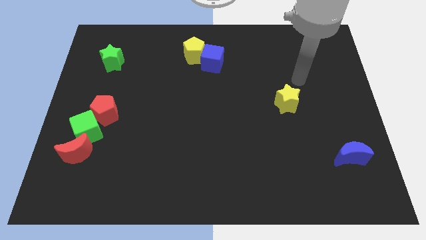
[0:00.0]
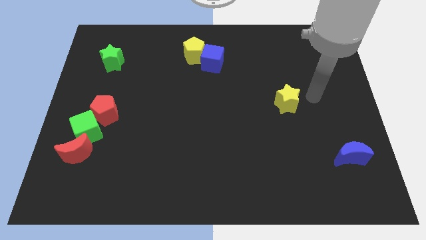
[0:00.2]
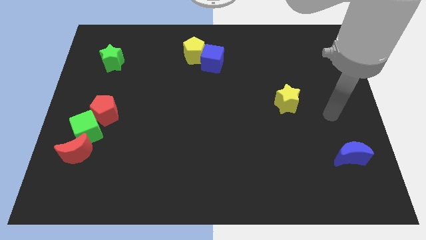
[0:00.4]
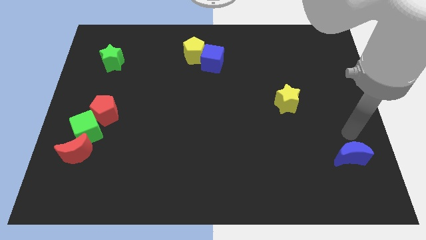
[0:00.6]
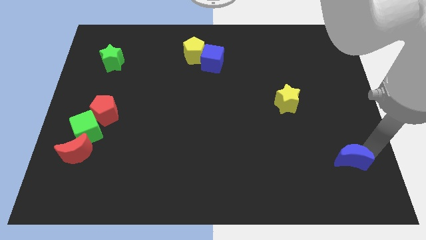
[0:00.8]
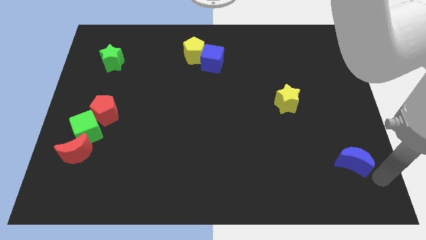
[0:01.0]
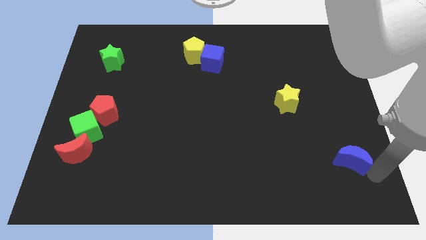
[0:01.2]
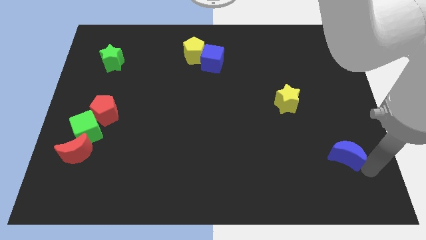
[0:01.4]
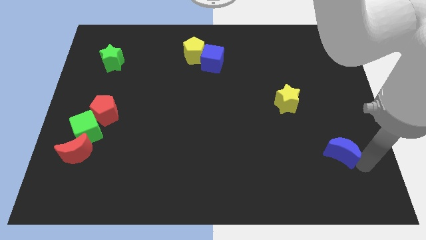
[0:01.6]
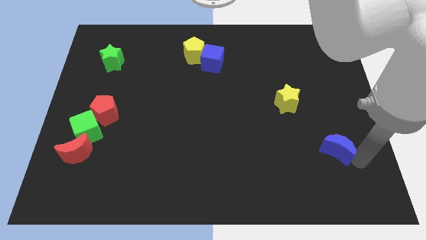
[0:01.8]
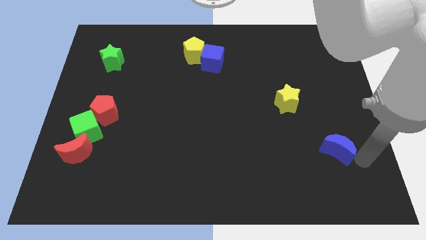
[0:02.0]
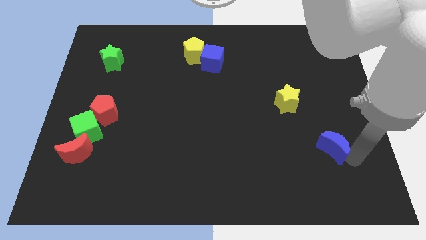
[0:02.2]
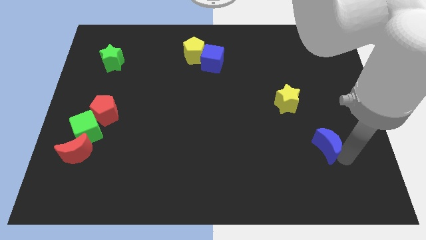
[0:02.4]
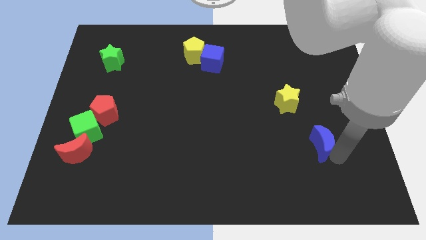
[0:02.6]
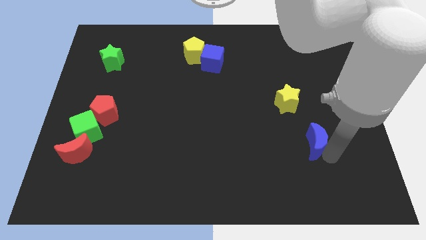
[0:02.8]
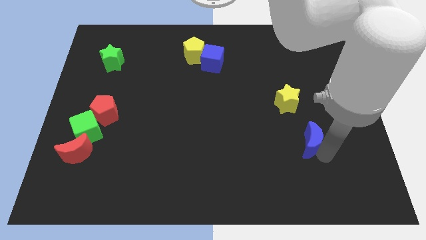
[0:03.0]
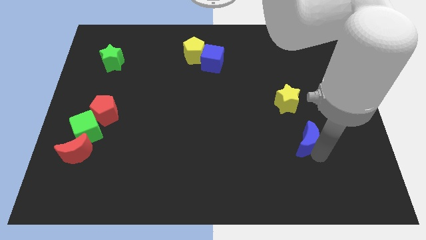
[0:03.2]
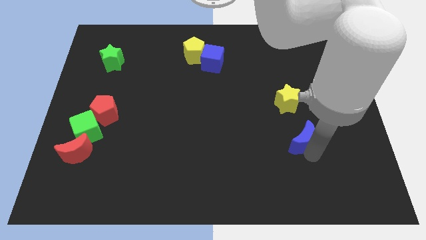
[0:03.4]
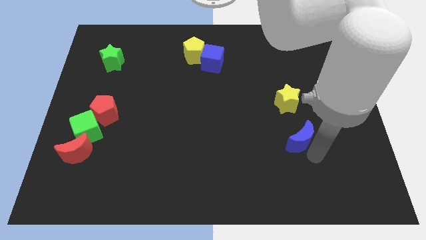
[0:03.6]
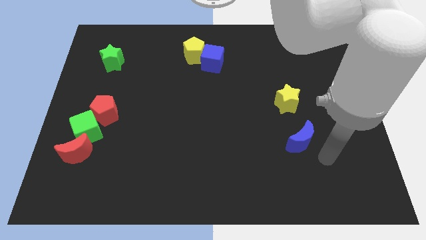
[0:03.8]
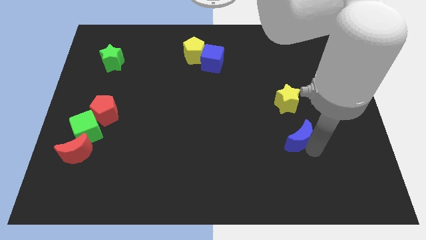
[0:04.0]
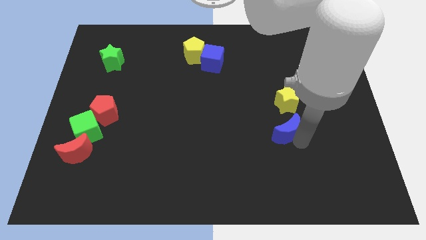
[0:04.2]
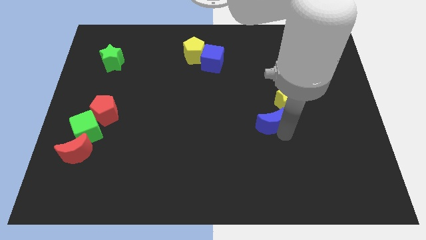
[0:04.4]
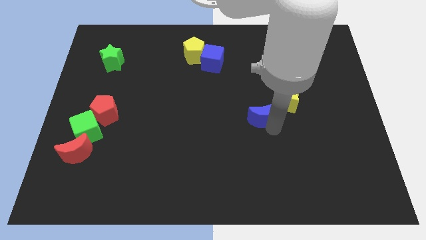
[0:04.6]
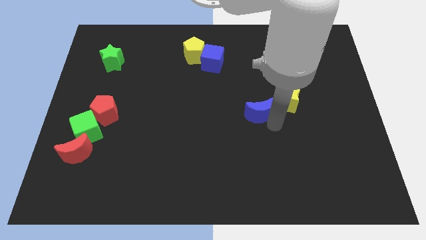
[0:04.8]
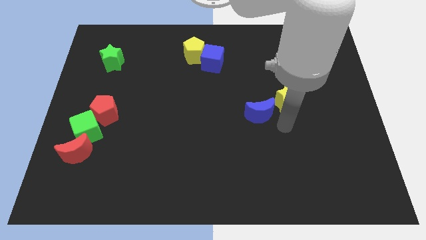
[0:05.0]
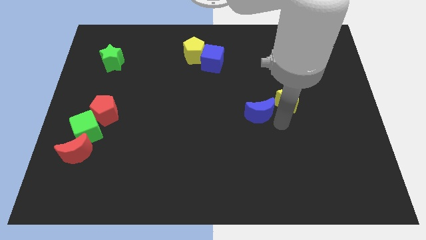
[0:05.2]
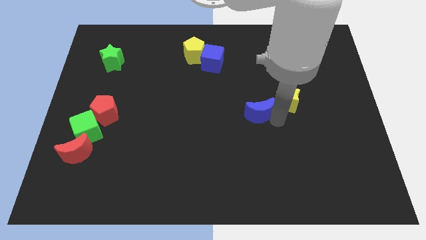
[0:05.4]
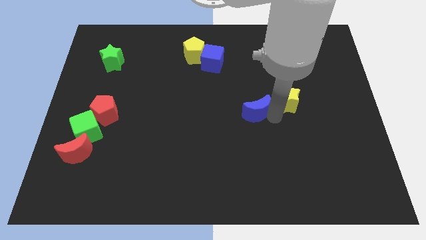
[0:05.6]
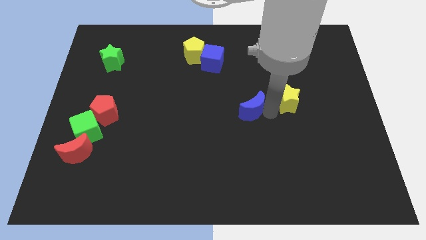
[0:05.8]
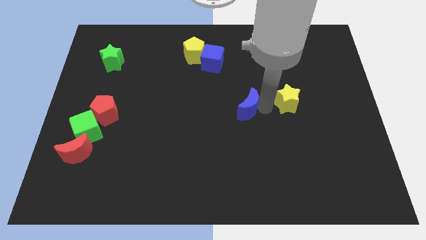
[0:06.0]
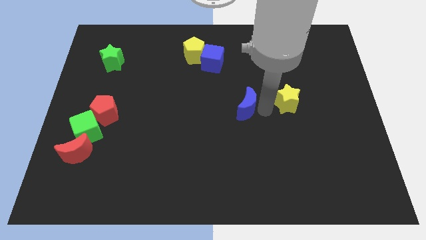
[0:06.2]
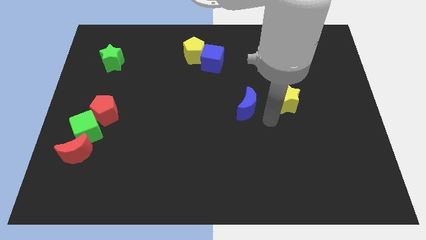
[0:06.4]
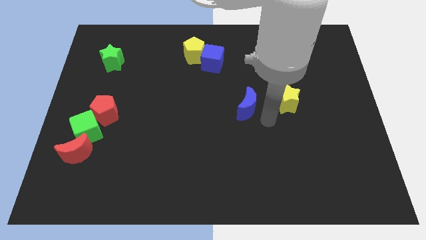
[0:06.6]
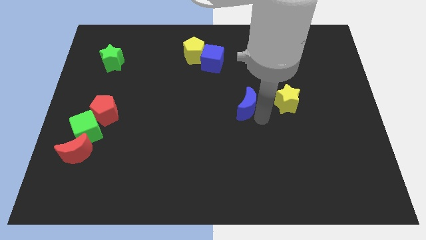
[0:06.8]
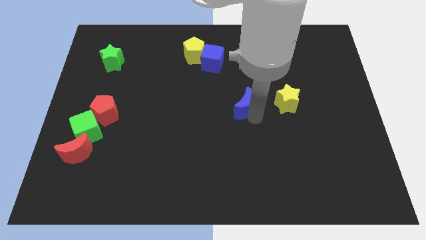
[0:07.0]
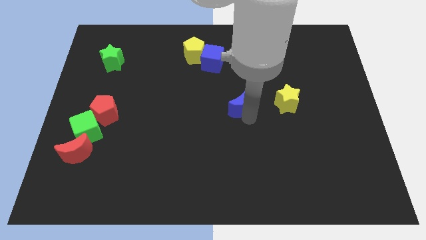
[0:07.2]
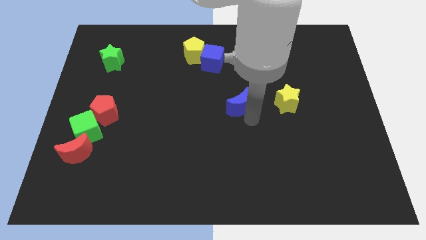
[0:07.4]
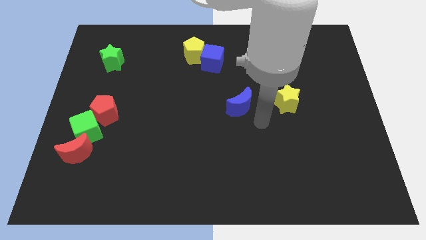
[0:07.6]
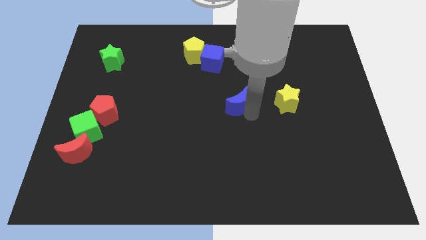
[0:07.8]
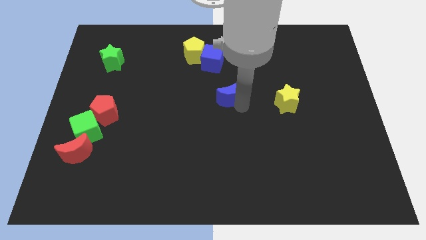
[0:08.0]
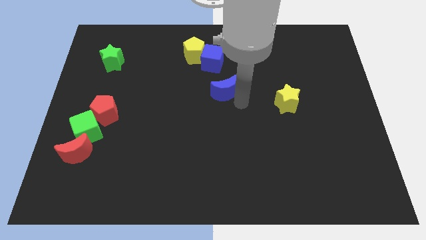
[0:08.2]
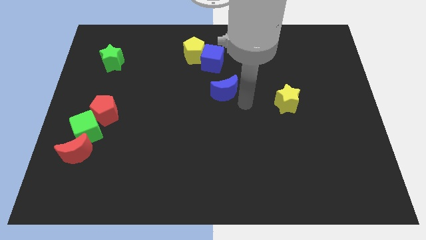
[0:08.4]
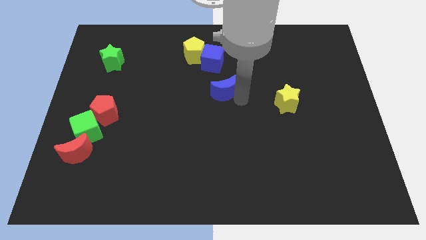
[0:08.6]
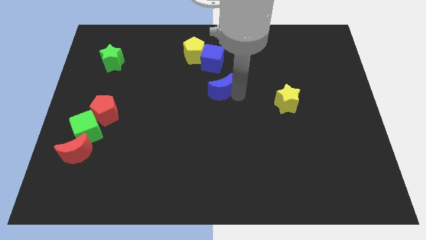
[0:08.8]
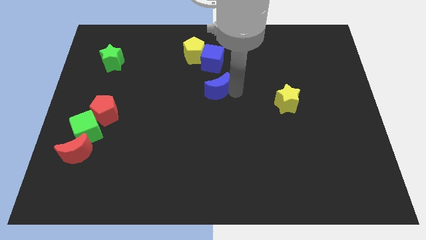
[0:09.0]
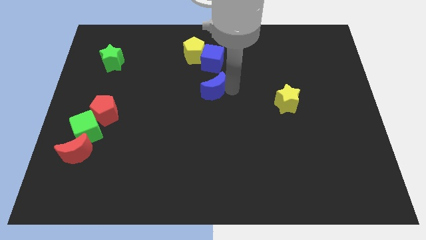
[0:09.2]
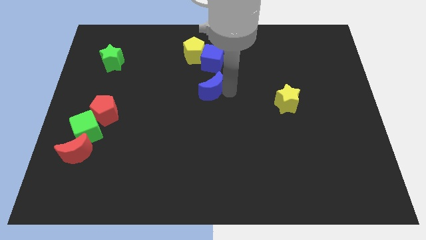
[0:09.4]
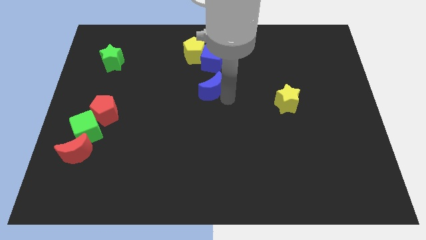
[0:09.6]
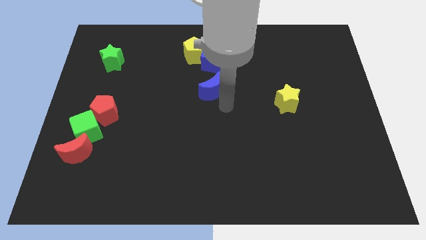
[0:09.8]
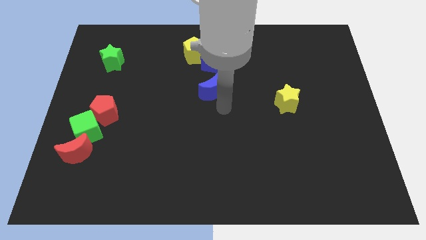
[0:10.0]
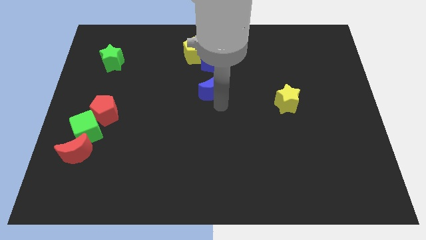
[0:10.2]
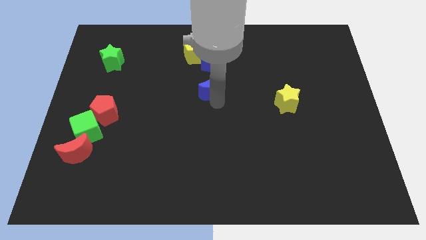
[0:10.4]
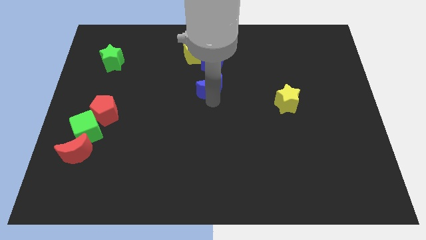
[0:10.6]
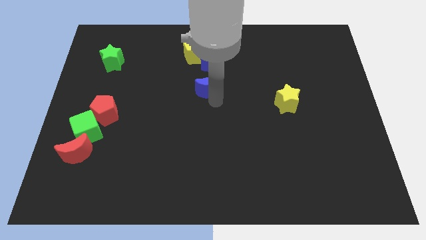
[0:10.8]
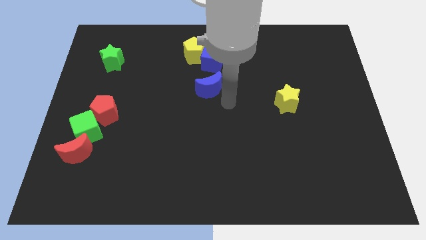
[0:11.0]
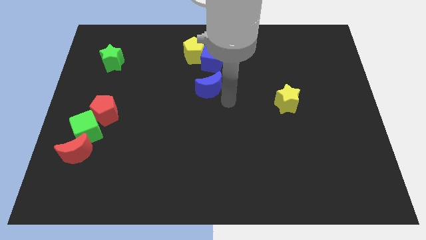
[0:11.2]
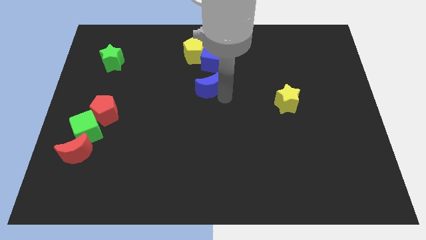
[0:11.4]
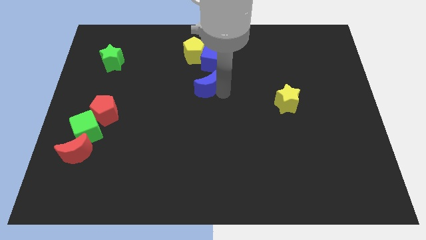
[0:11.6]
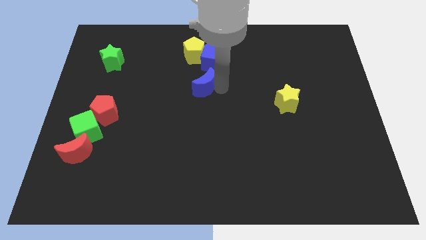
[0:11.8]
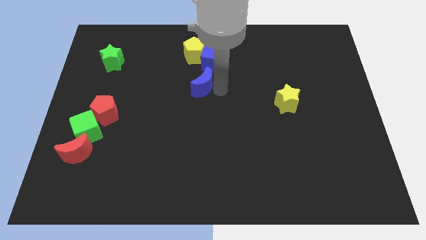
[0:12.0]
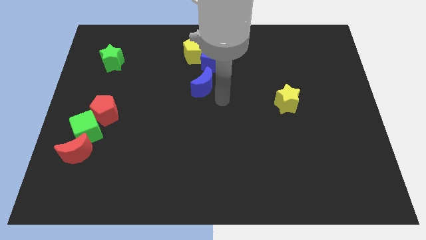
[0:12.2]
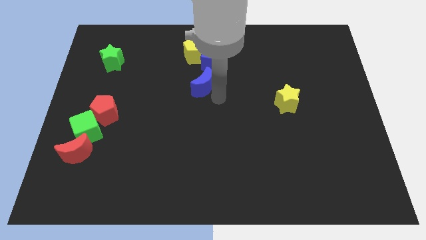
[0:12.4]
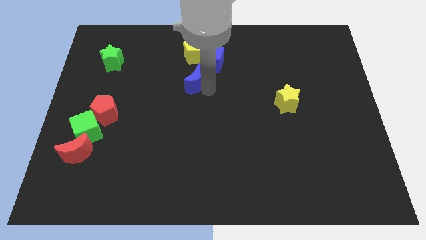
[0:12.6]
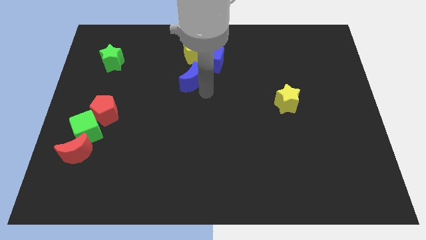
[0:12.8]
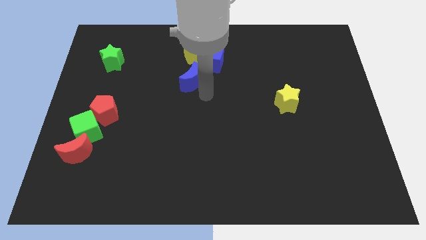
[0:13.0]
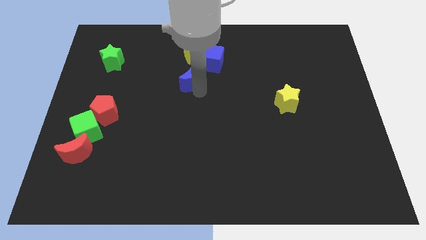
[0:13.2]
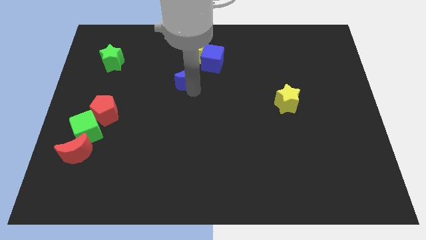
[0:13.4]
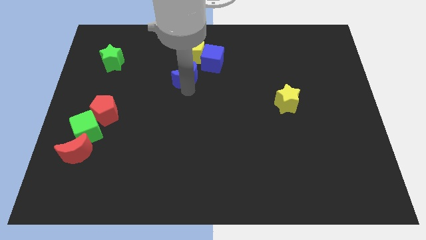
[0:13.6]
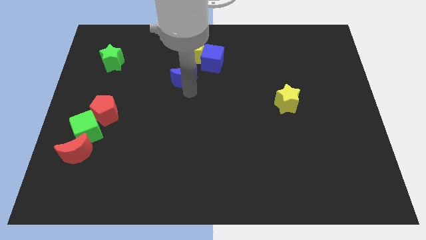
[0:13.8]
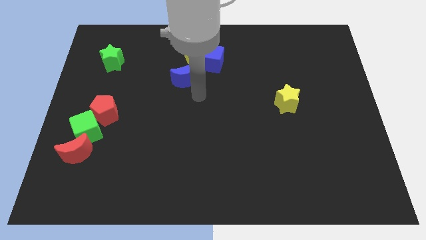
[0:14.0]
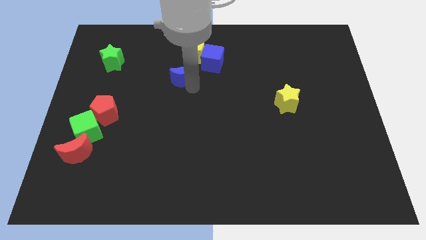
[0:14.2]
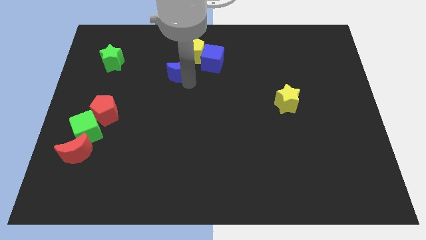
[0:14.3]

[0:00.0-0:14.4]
move the blue moon just left of the blue cube

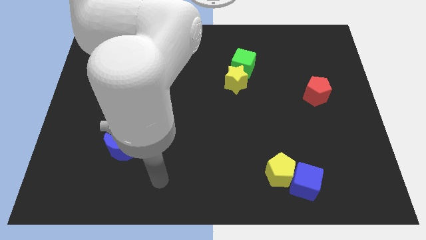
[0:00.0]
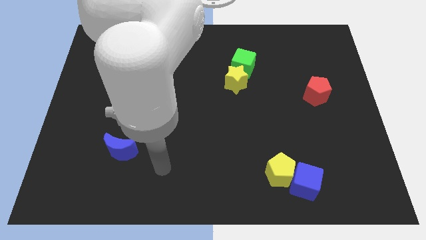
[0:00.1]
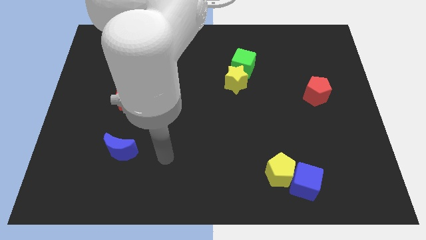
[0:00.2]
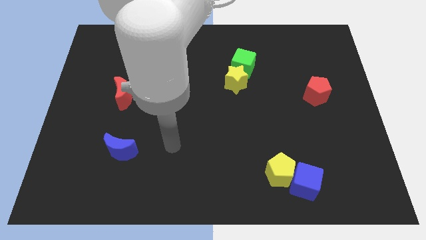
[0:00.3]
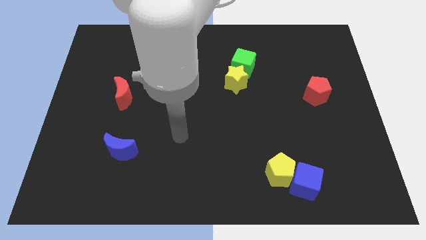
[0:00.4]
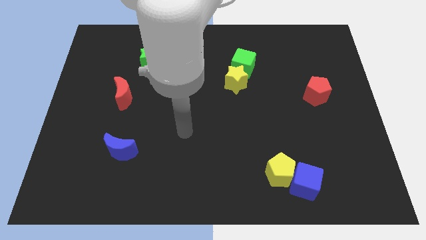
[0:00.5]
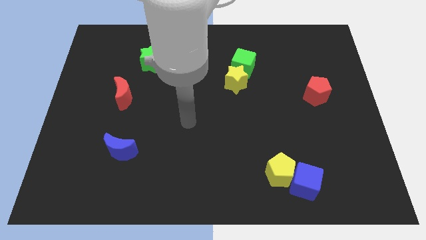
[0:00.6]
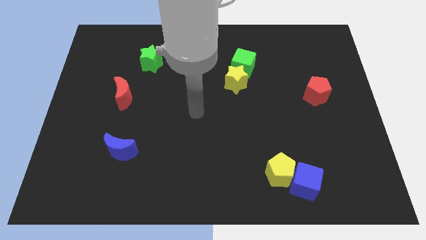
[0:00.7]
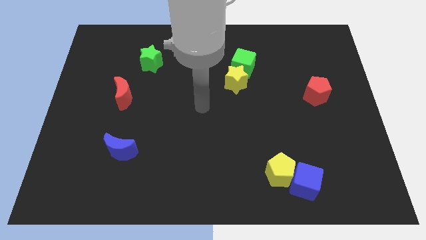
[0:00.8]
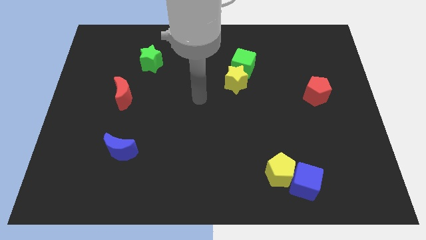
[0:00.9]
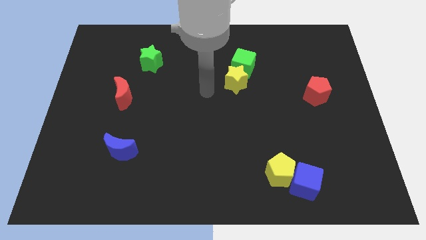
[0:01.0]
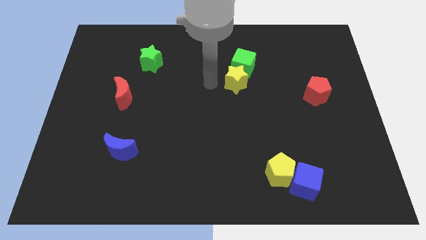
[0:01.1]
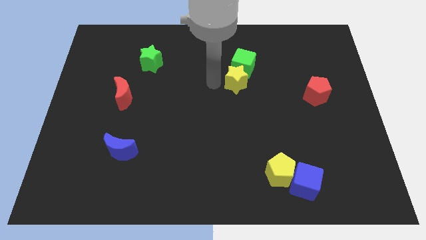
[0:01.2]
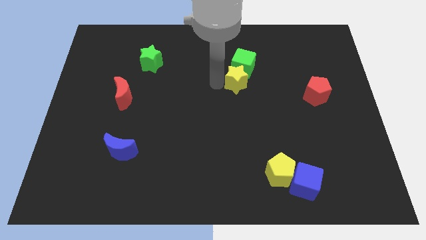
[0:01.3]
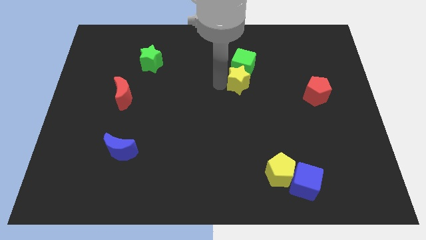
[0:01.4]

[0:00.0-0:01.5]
move the yellow star to the bottom right of the green cube

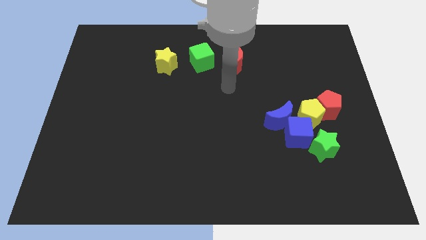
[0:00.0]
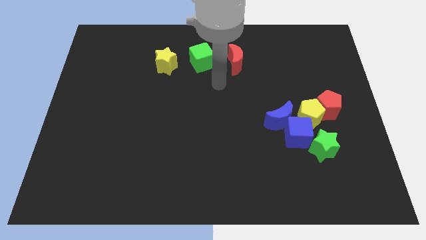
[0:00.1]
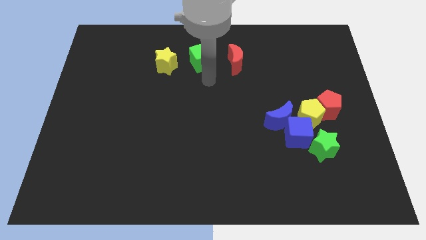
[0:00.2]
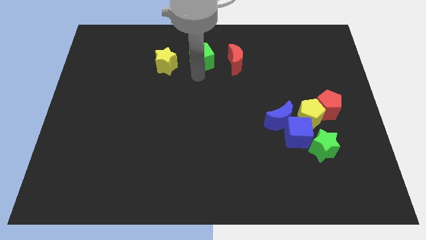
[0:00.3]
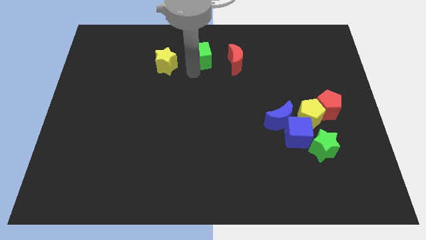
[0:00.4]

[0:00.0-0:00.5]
slide the yellow star diagonally down and to the left of the green cube
